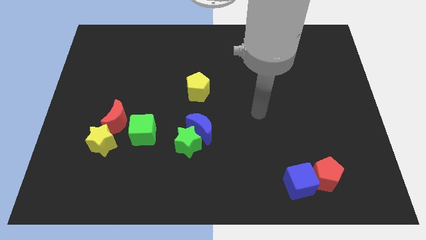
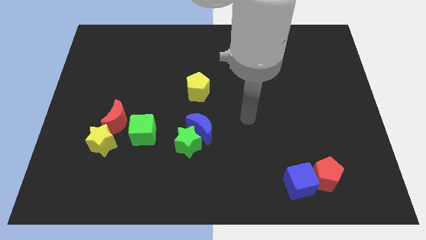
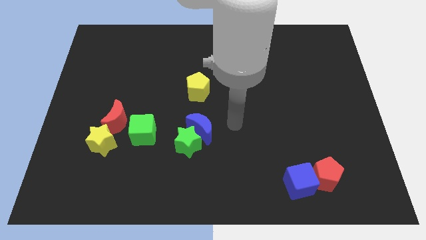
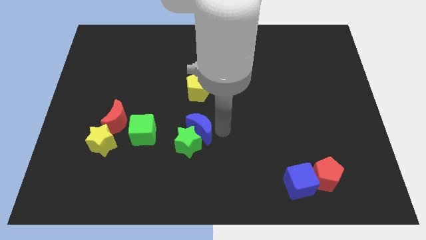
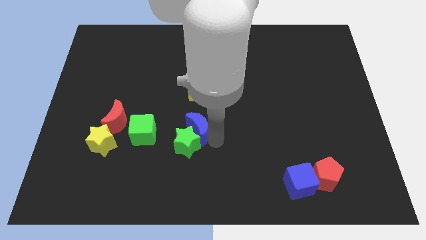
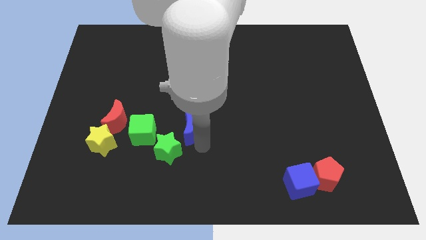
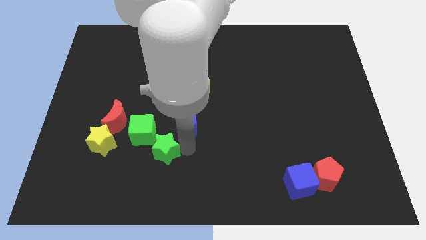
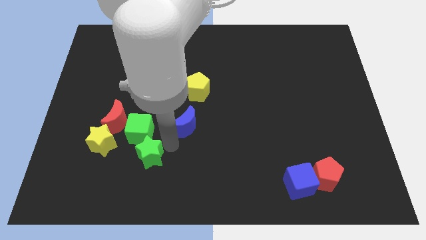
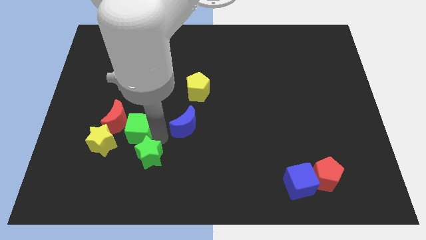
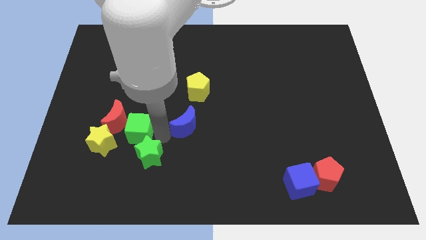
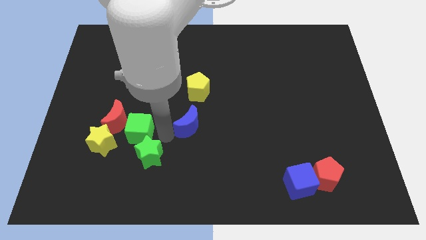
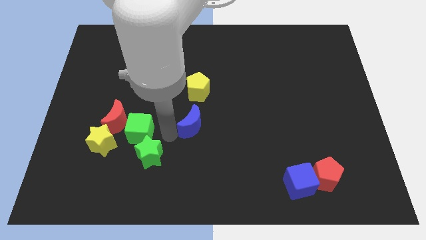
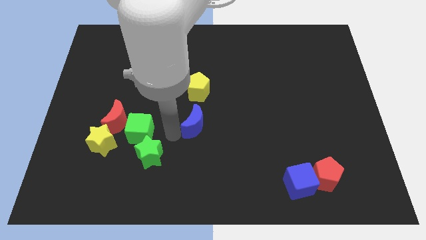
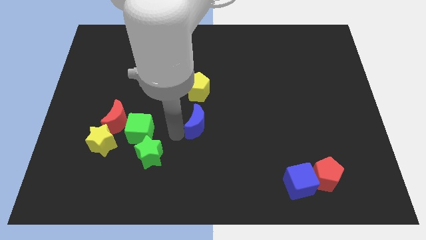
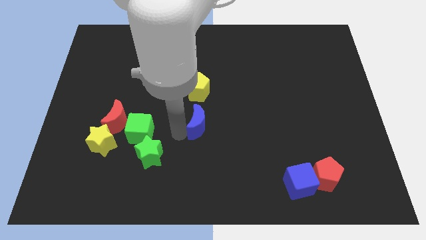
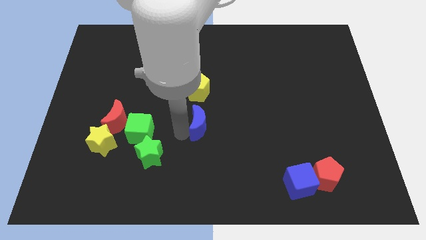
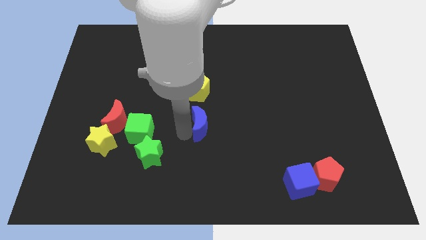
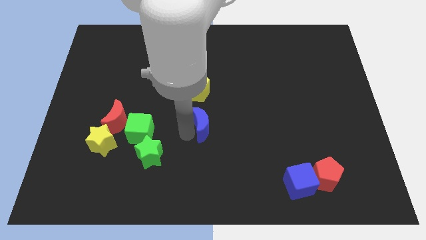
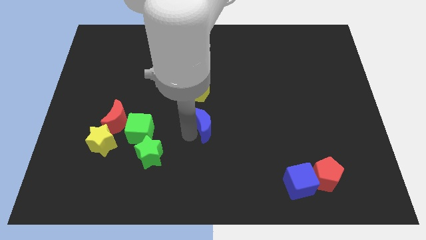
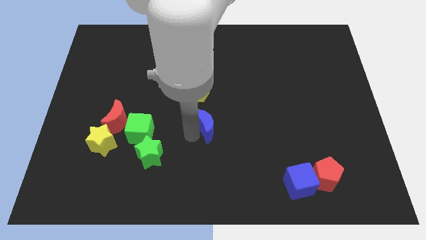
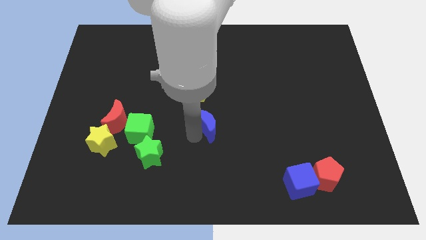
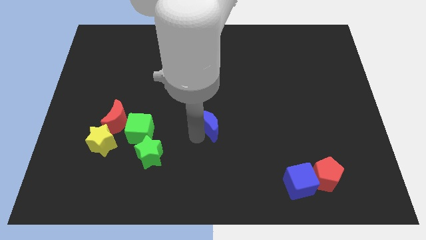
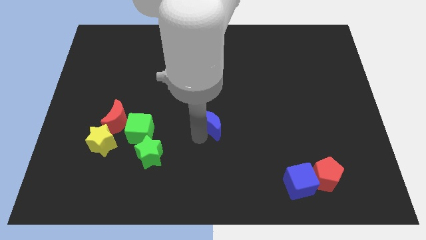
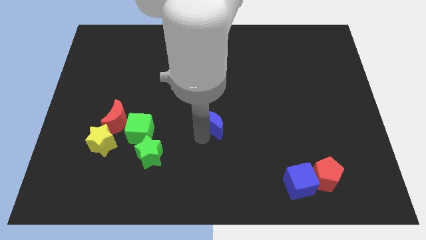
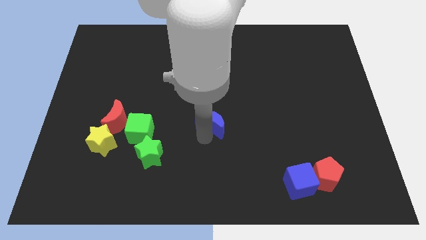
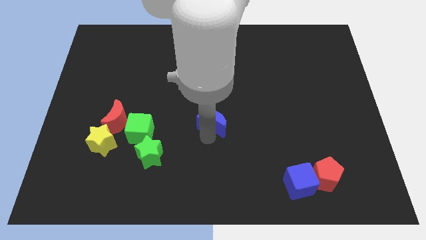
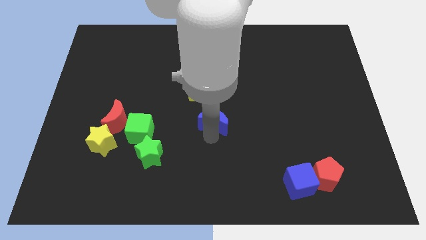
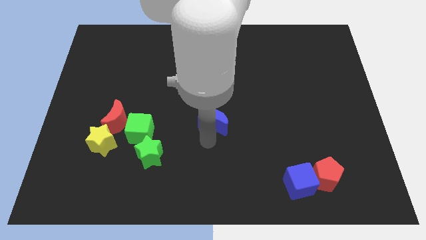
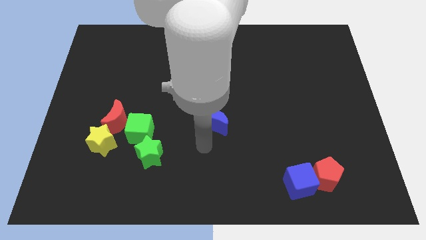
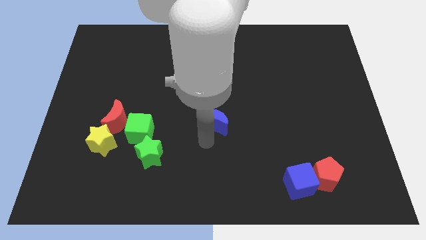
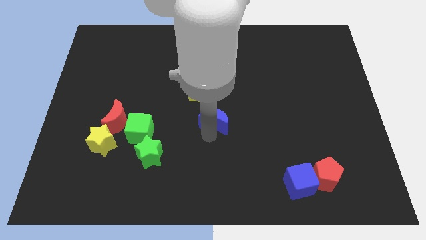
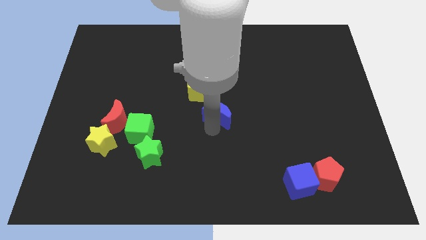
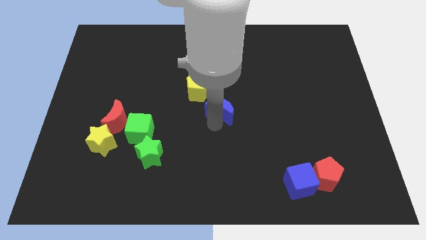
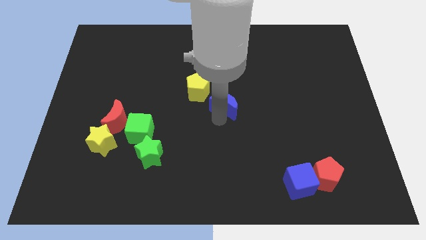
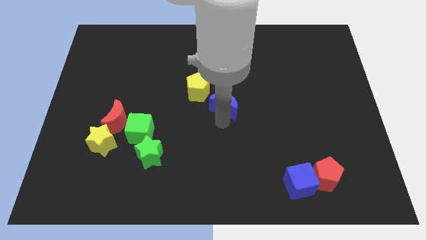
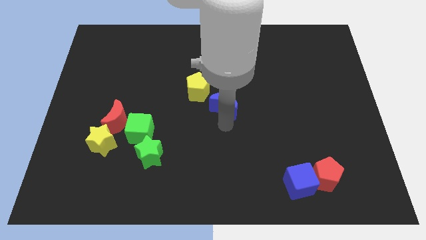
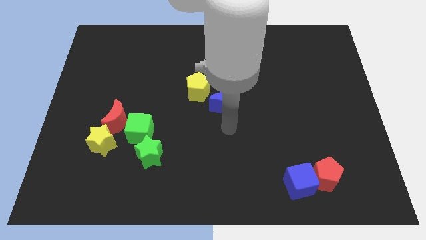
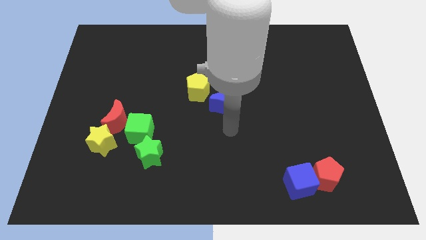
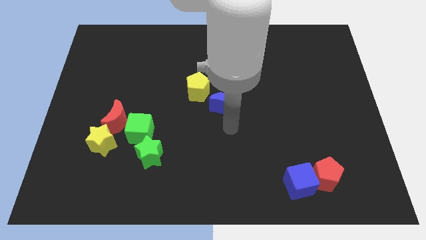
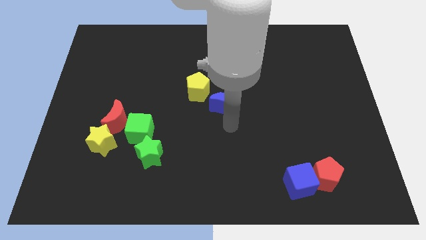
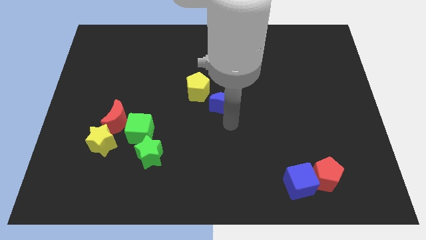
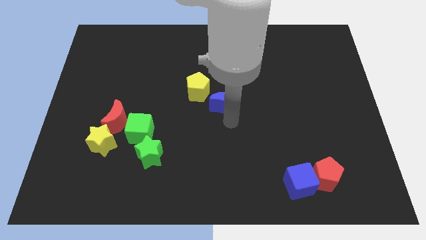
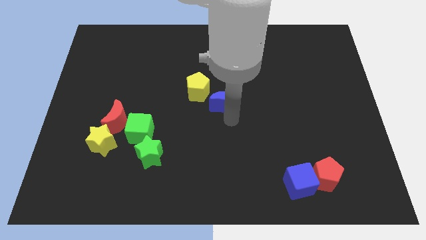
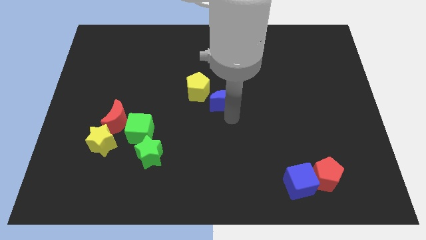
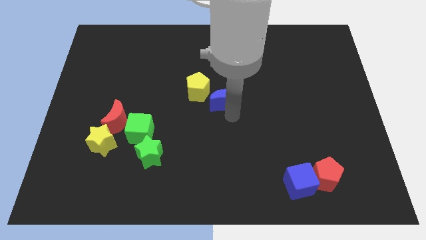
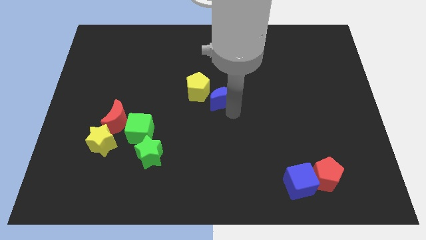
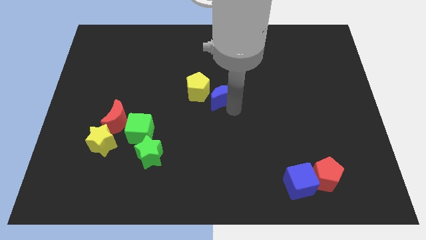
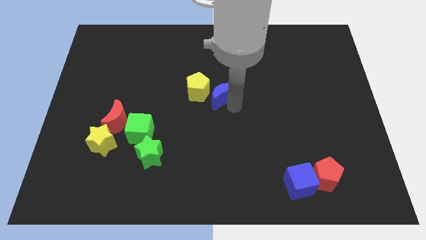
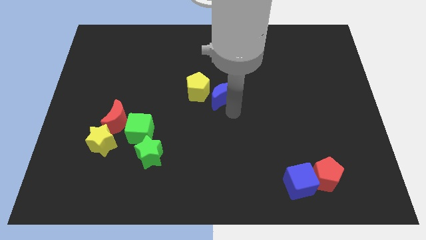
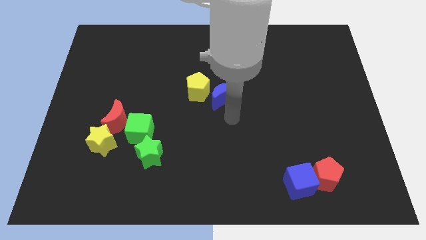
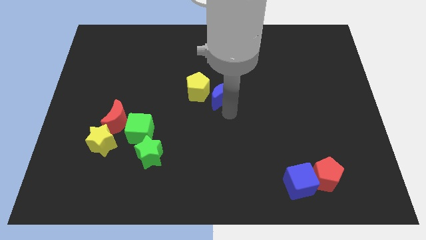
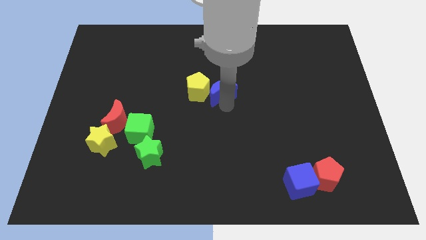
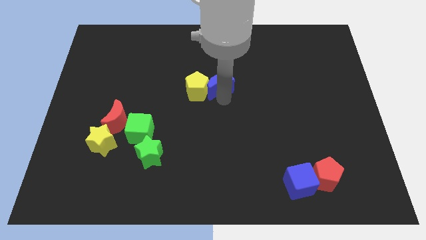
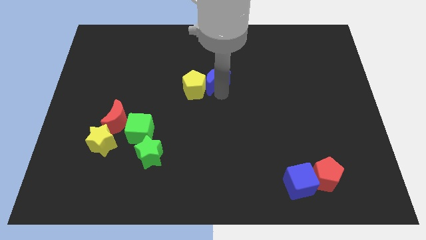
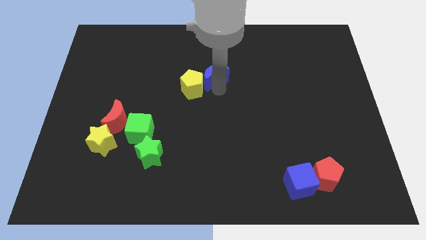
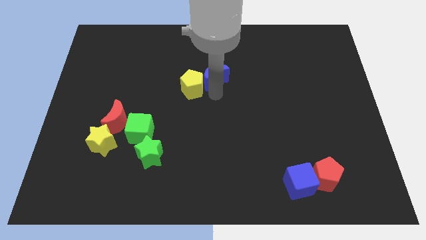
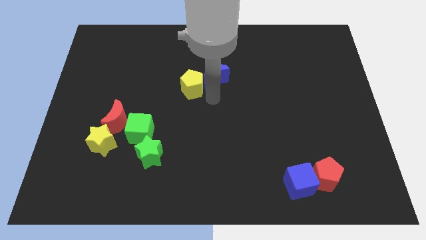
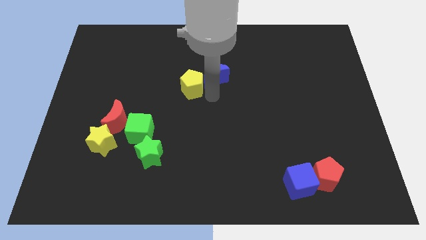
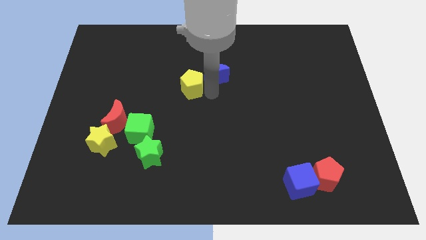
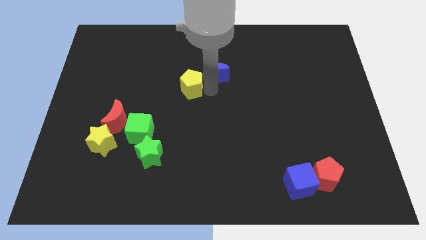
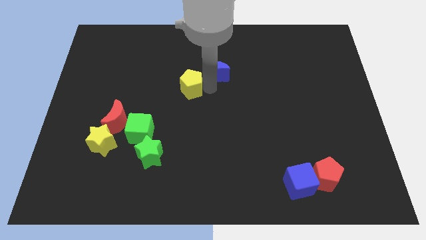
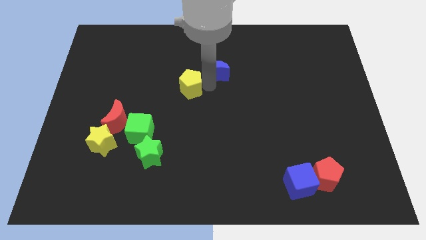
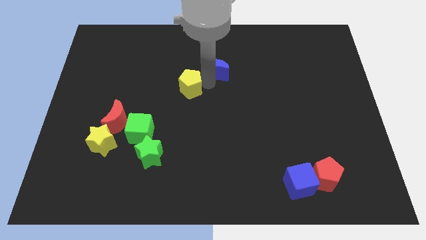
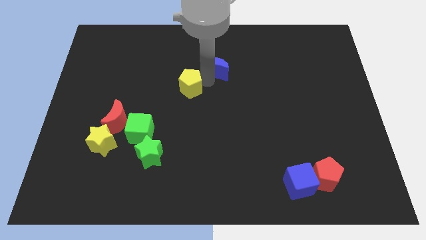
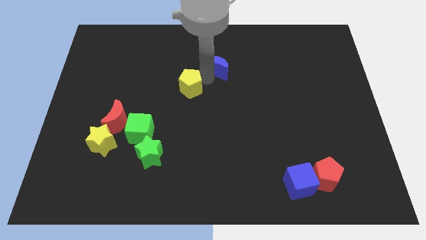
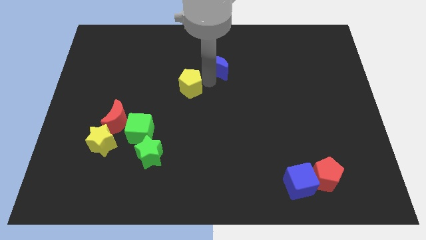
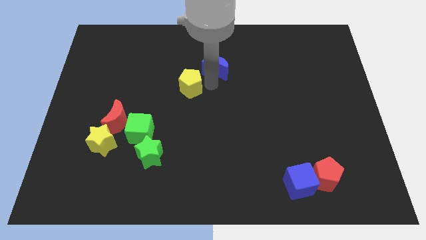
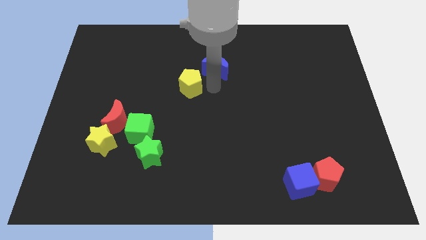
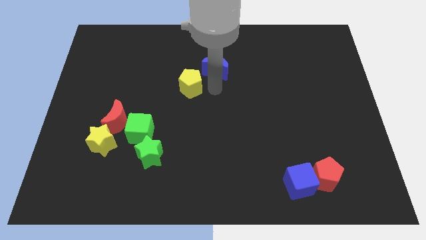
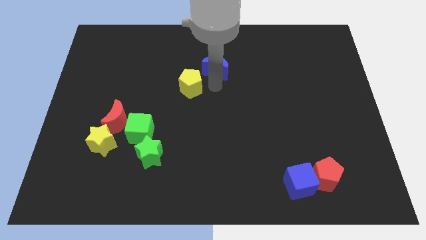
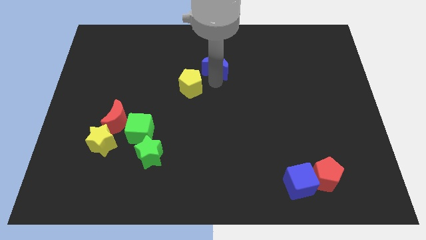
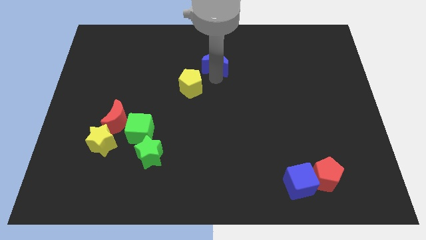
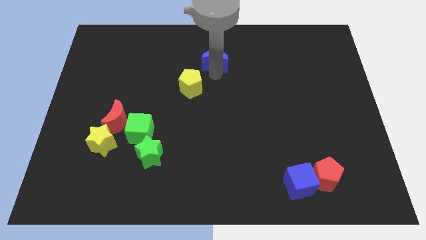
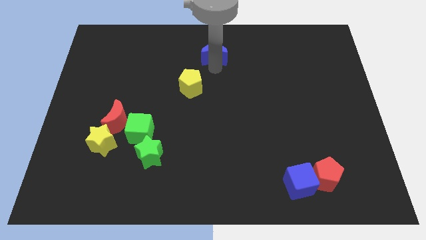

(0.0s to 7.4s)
push the blue moon to the top side
